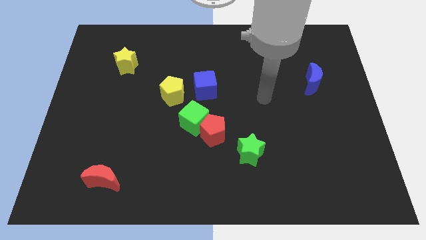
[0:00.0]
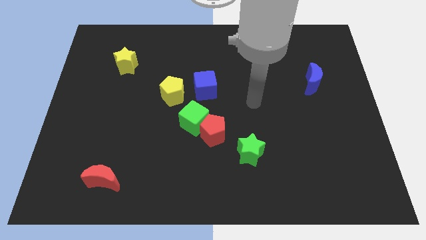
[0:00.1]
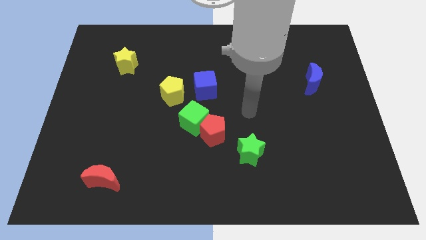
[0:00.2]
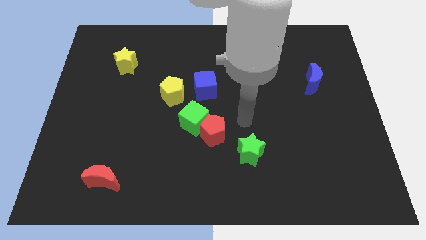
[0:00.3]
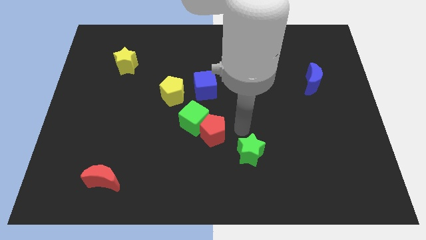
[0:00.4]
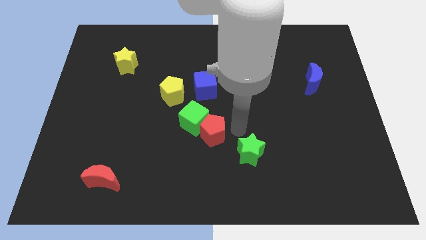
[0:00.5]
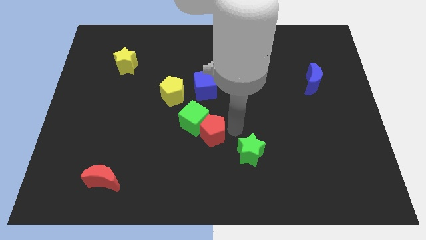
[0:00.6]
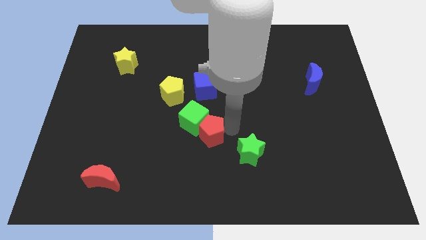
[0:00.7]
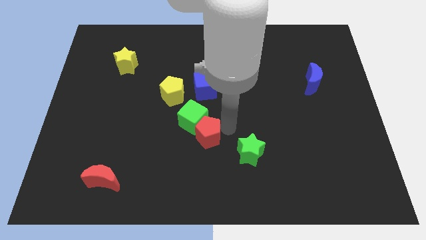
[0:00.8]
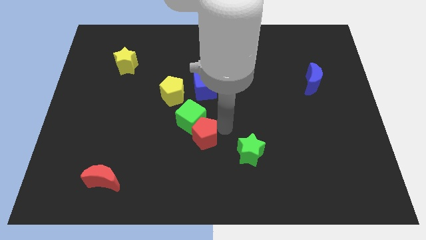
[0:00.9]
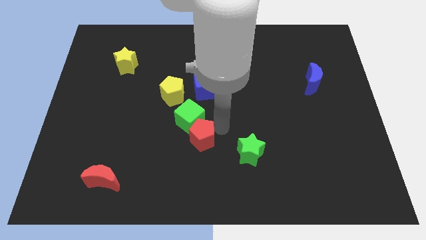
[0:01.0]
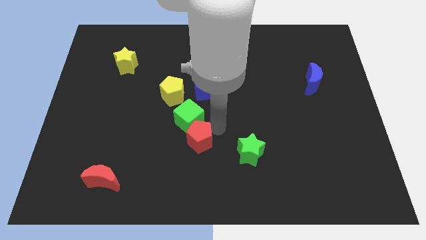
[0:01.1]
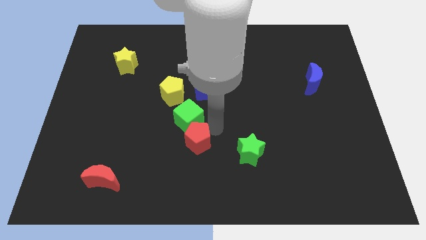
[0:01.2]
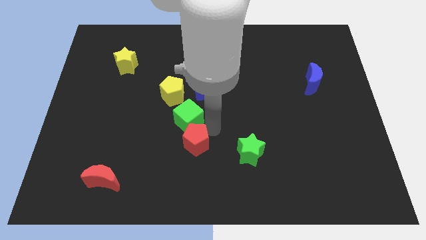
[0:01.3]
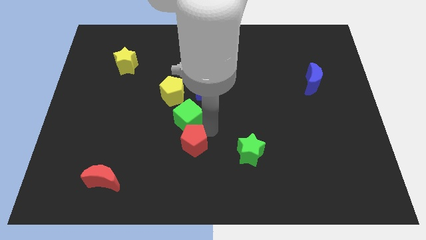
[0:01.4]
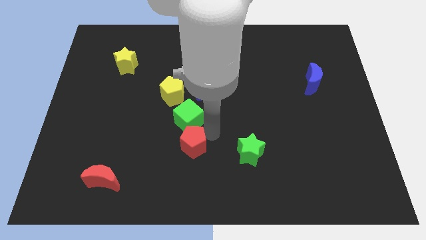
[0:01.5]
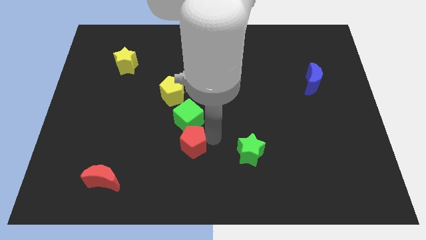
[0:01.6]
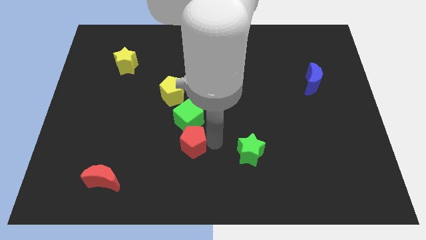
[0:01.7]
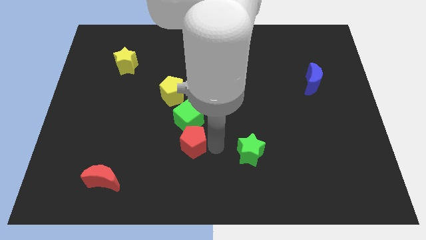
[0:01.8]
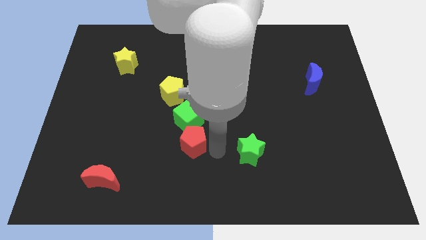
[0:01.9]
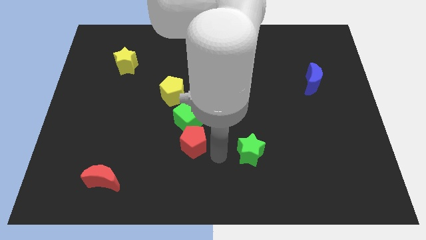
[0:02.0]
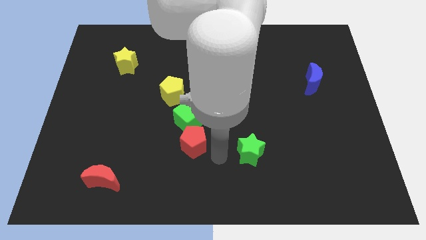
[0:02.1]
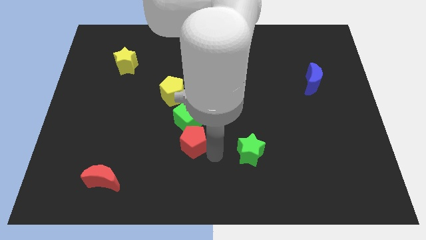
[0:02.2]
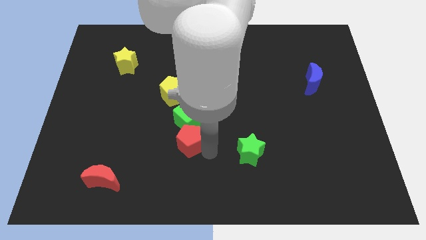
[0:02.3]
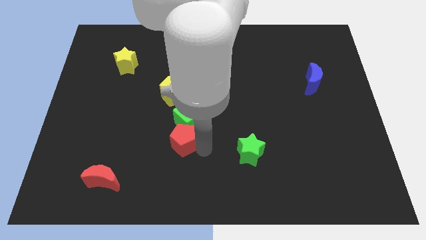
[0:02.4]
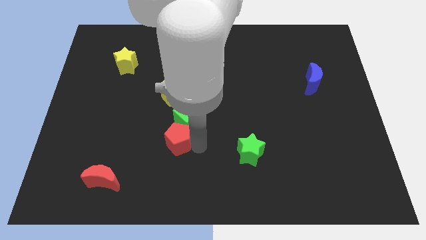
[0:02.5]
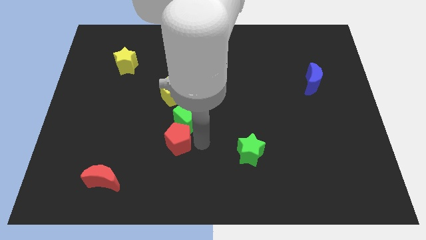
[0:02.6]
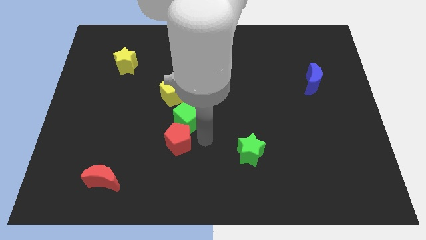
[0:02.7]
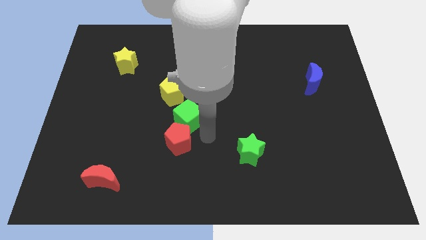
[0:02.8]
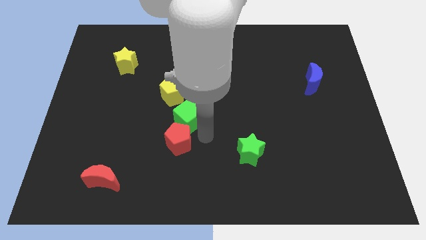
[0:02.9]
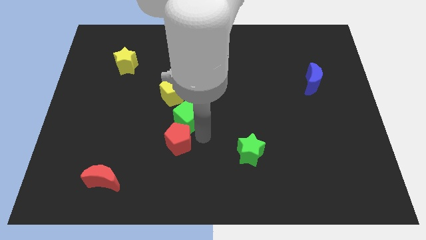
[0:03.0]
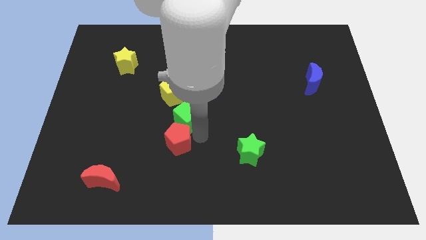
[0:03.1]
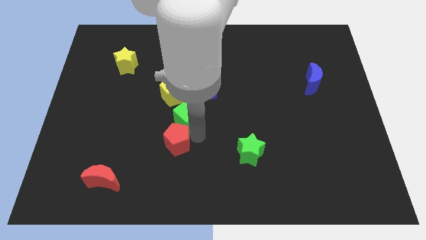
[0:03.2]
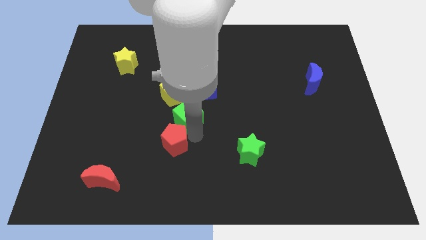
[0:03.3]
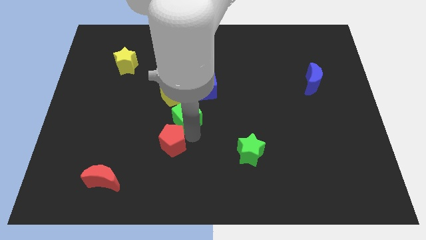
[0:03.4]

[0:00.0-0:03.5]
pull the red pentagon apart from the green cube and green star

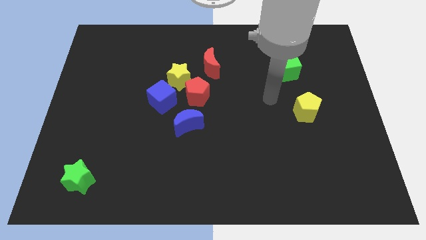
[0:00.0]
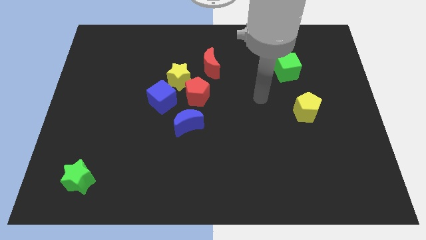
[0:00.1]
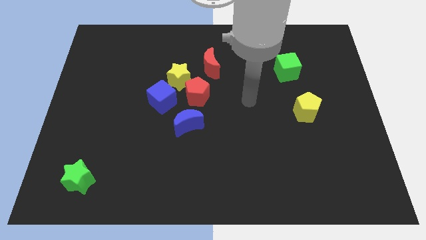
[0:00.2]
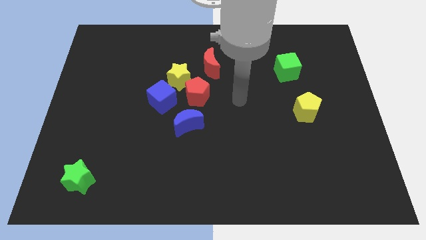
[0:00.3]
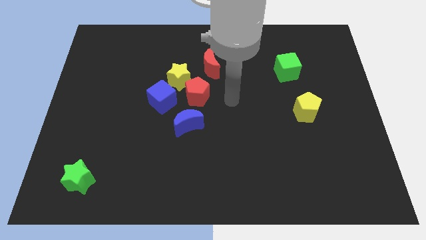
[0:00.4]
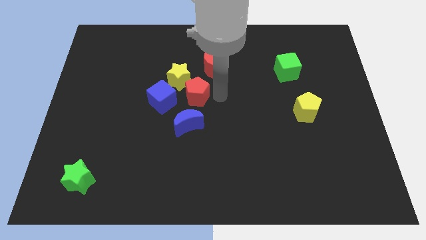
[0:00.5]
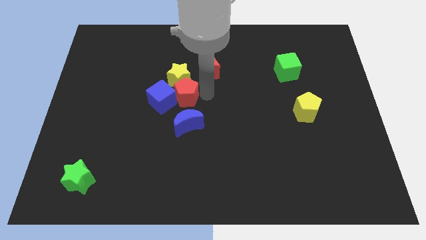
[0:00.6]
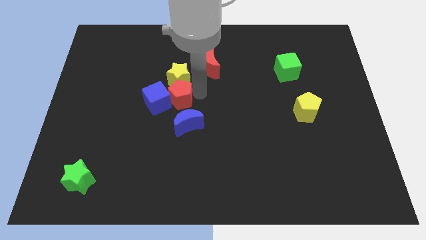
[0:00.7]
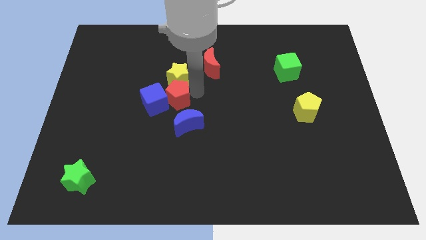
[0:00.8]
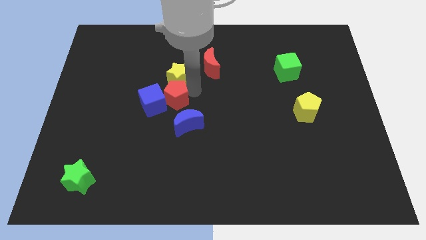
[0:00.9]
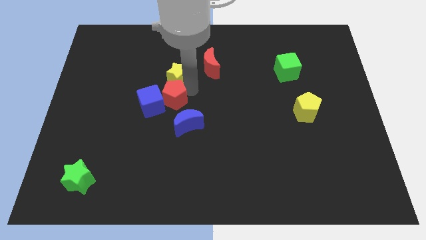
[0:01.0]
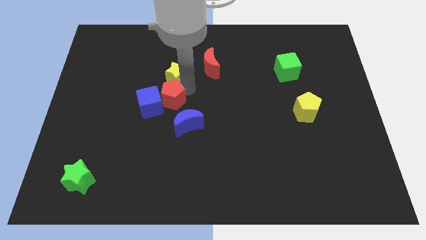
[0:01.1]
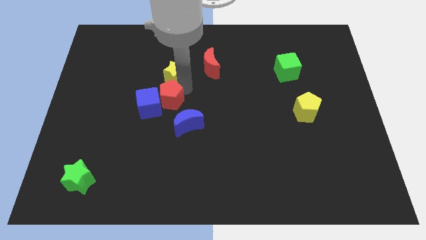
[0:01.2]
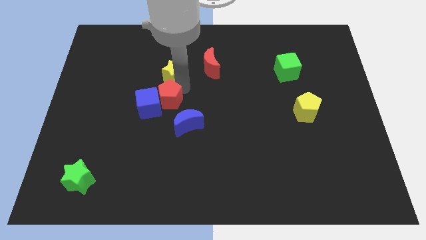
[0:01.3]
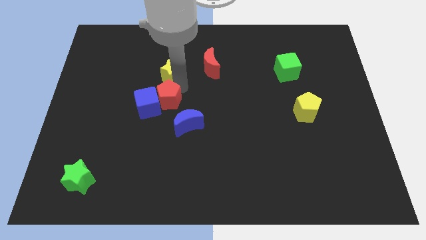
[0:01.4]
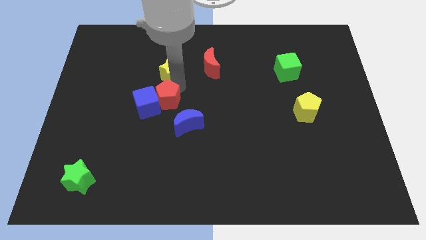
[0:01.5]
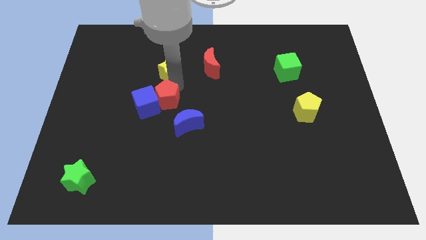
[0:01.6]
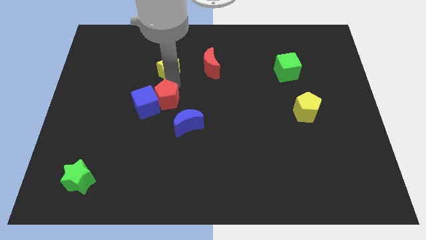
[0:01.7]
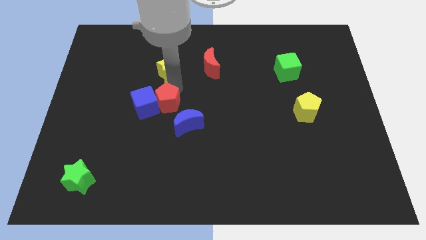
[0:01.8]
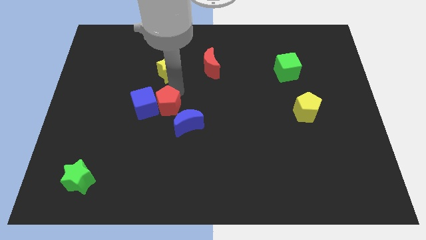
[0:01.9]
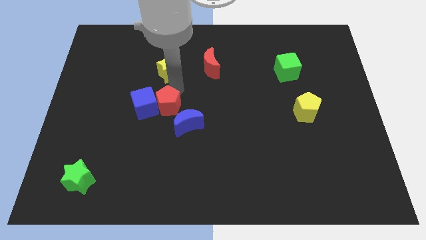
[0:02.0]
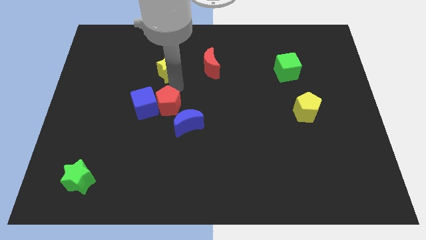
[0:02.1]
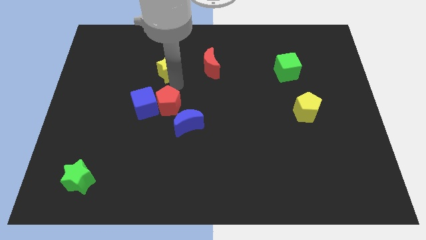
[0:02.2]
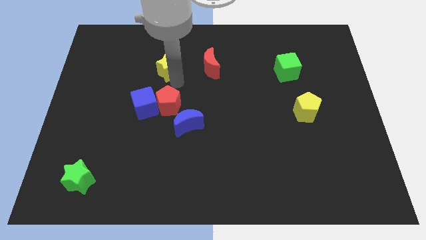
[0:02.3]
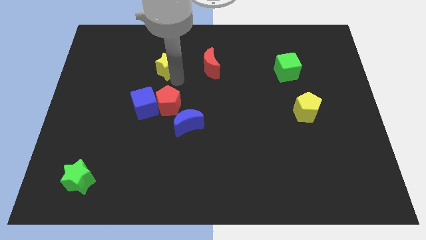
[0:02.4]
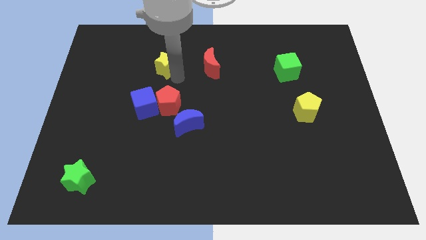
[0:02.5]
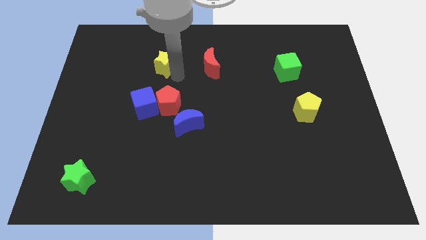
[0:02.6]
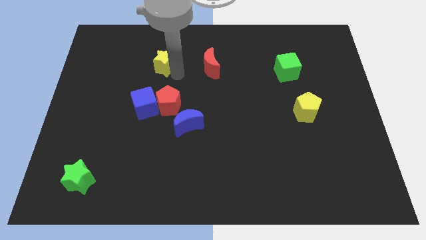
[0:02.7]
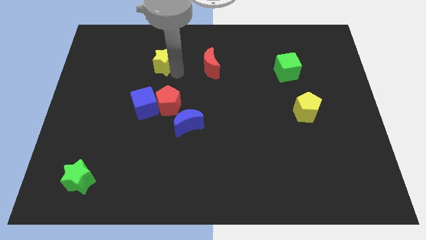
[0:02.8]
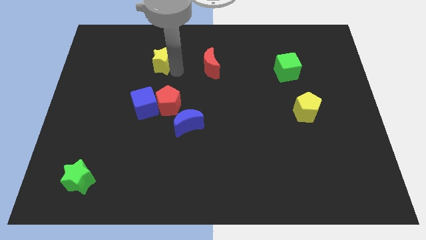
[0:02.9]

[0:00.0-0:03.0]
move the yellow star away from the group of blocks

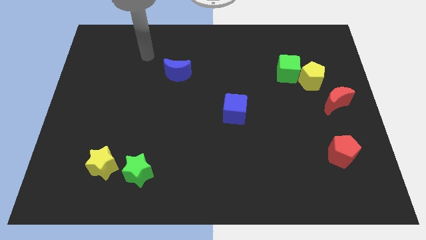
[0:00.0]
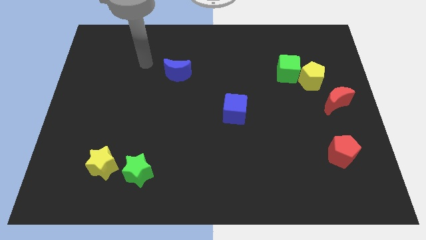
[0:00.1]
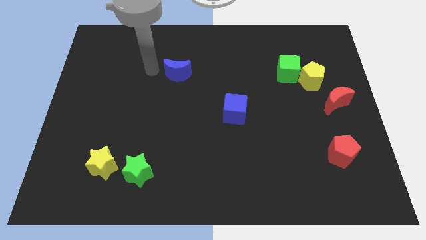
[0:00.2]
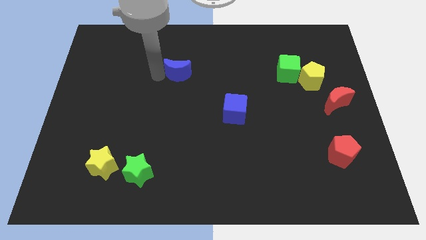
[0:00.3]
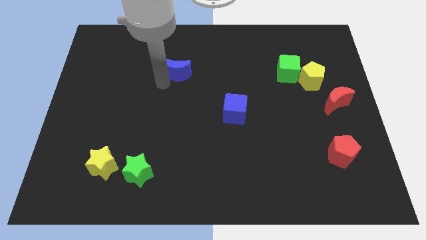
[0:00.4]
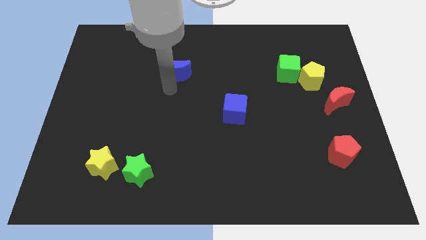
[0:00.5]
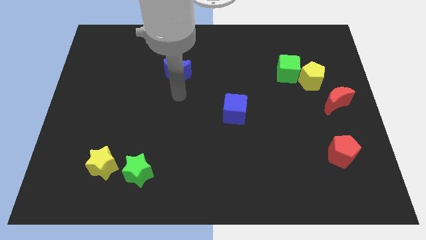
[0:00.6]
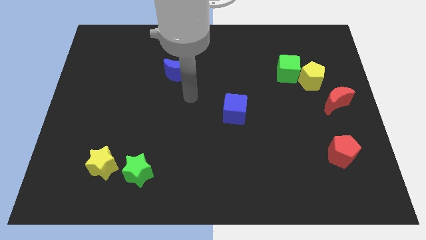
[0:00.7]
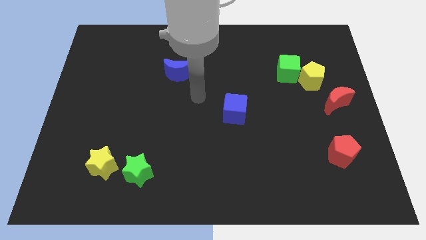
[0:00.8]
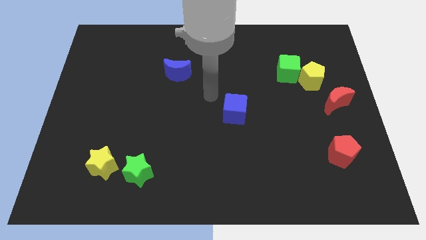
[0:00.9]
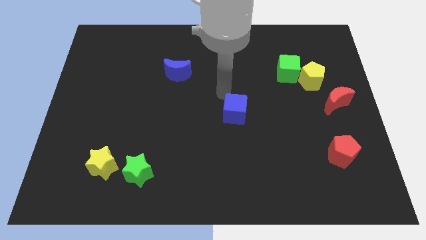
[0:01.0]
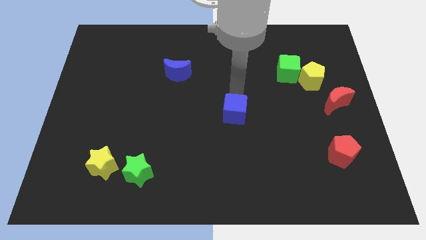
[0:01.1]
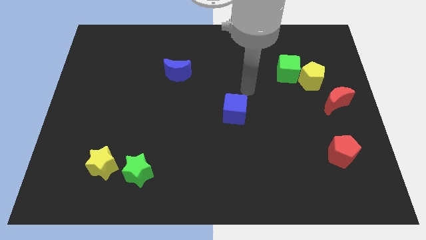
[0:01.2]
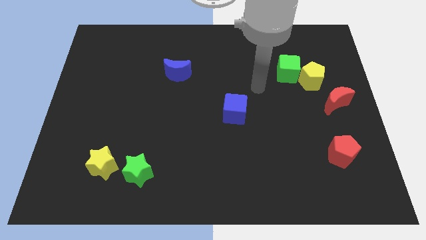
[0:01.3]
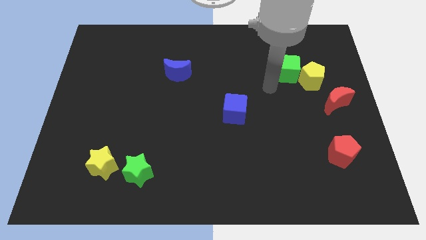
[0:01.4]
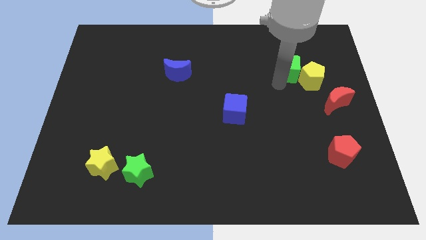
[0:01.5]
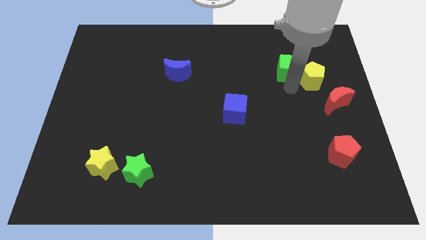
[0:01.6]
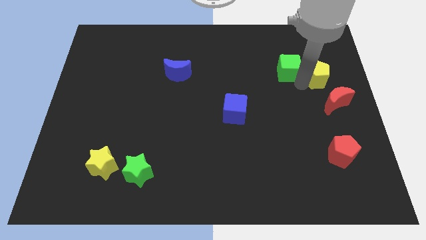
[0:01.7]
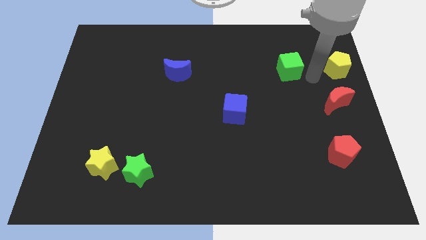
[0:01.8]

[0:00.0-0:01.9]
pull the green cube apart from the yellow pentagon

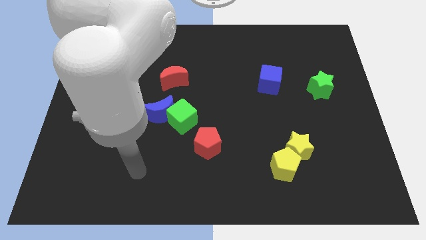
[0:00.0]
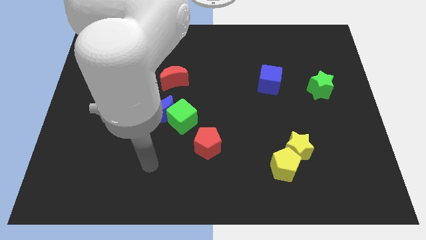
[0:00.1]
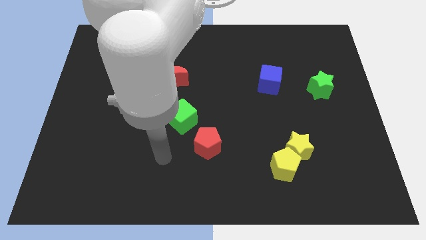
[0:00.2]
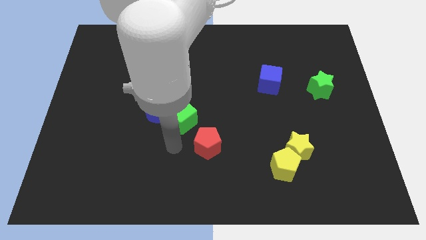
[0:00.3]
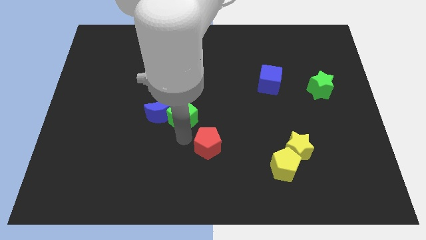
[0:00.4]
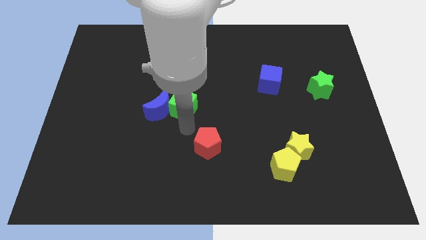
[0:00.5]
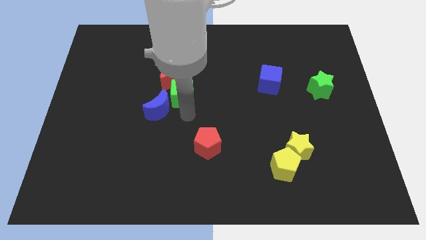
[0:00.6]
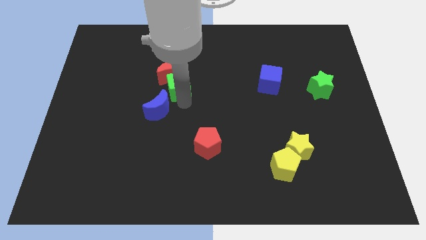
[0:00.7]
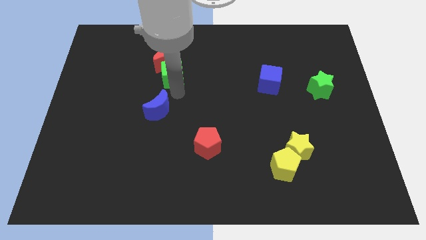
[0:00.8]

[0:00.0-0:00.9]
separate the blue moon from the green cube

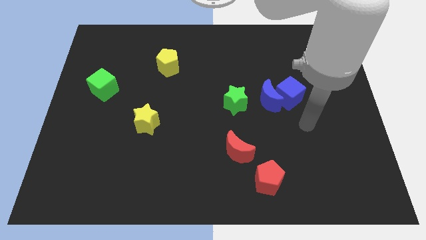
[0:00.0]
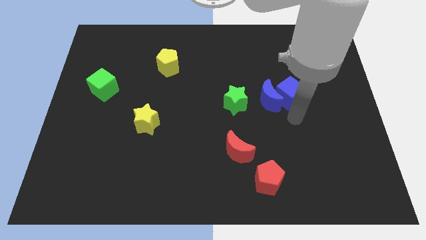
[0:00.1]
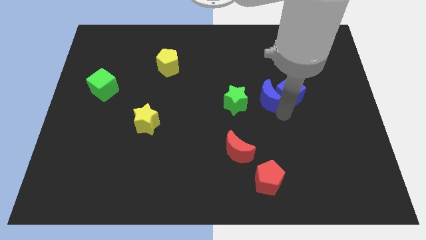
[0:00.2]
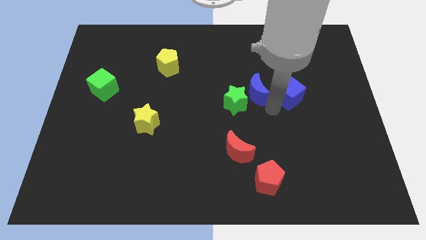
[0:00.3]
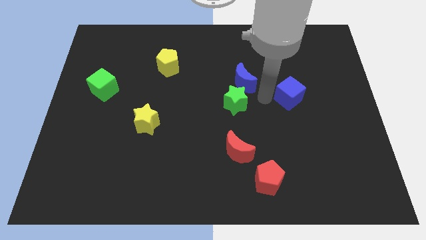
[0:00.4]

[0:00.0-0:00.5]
separate the blue cube from the blue moon
